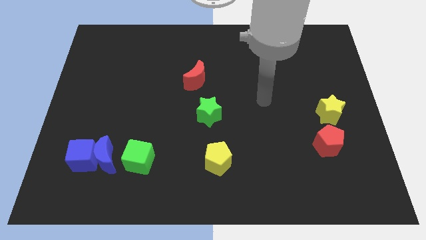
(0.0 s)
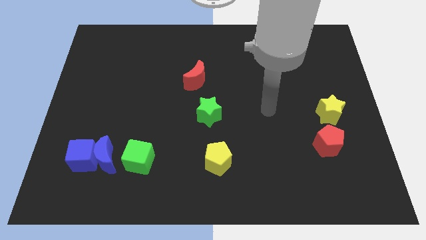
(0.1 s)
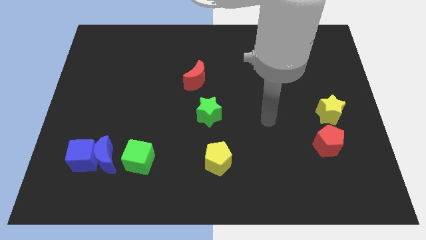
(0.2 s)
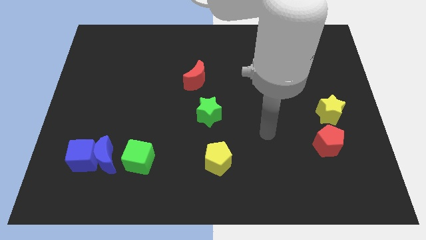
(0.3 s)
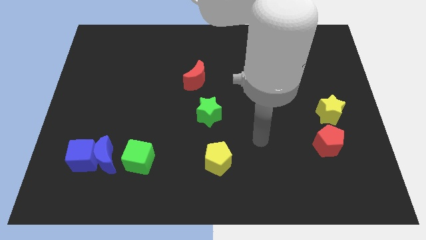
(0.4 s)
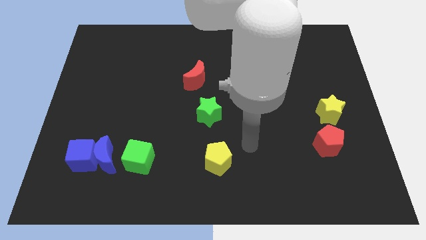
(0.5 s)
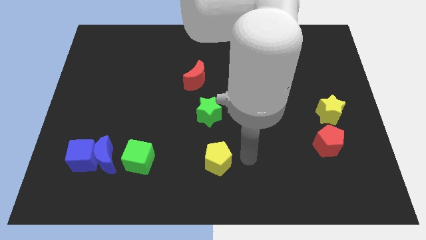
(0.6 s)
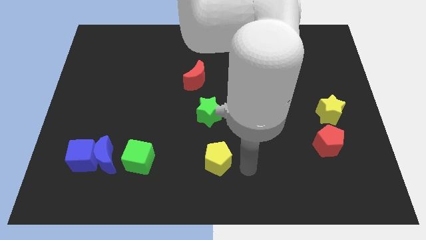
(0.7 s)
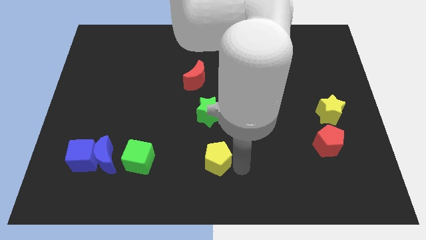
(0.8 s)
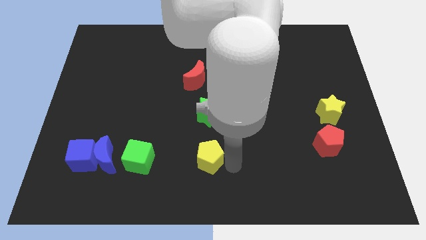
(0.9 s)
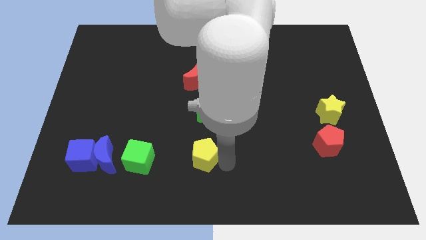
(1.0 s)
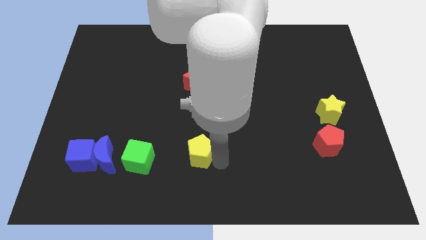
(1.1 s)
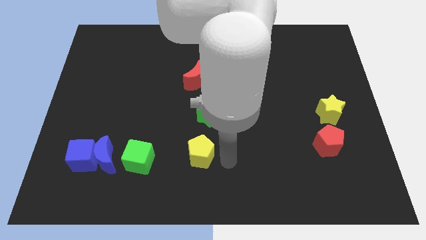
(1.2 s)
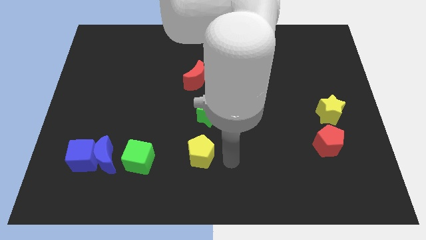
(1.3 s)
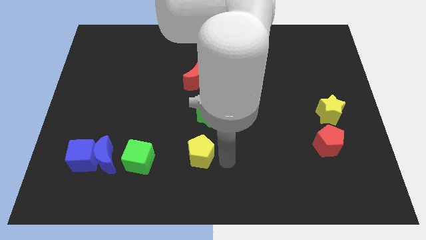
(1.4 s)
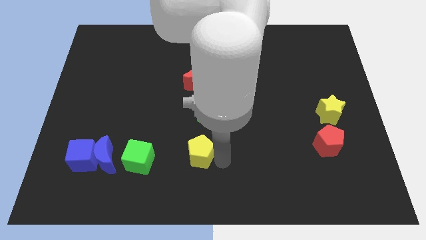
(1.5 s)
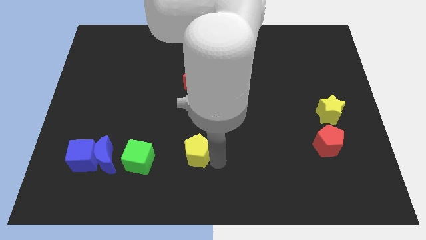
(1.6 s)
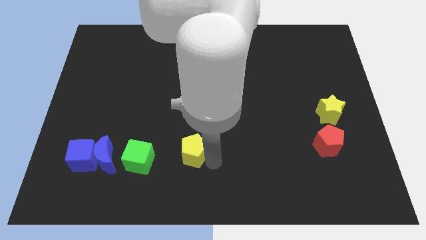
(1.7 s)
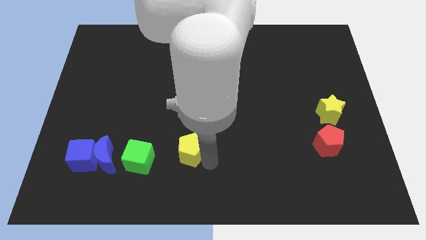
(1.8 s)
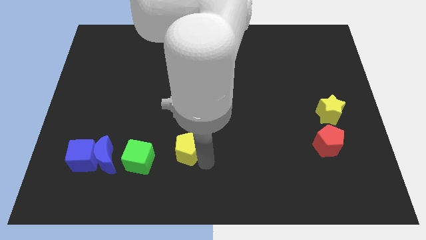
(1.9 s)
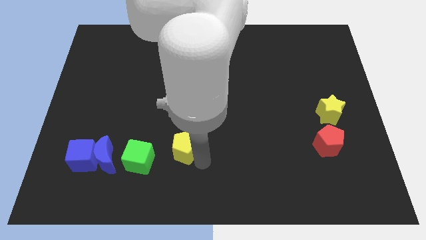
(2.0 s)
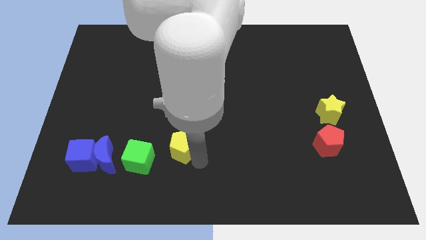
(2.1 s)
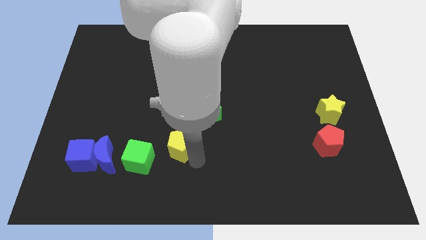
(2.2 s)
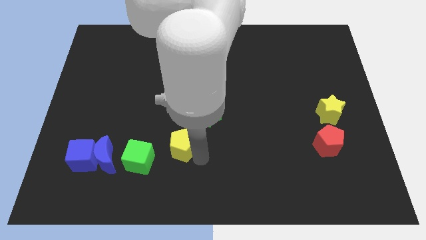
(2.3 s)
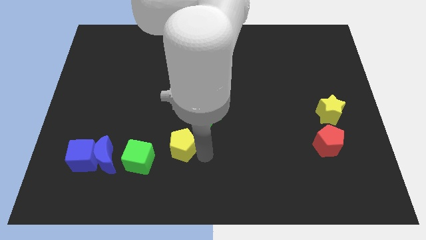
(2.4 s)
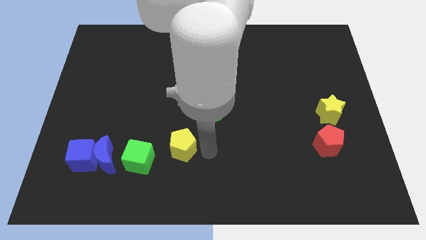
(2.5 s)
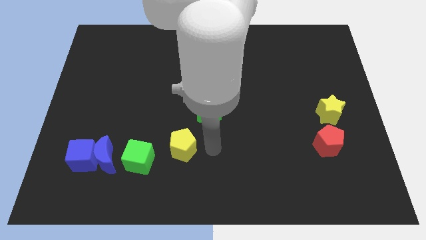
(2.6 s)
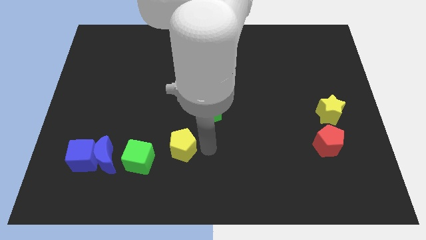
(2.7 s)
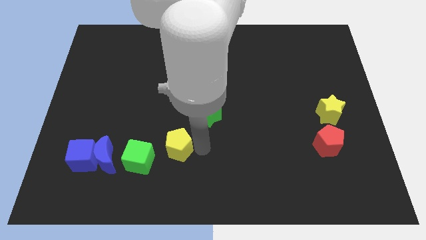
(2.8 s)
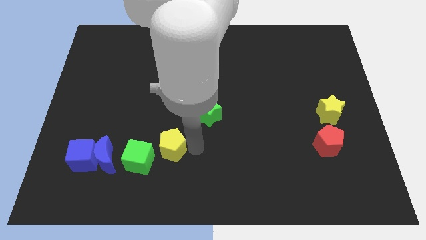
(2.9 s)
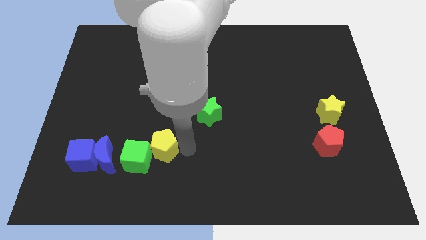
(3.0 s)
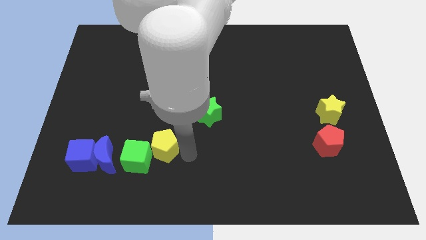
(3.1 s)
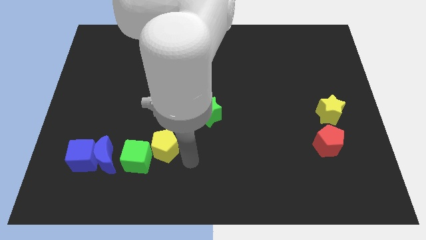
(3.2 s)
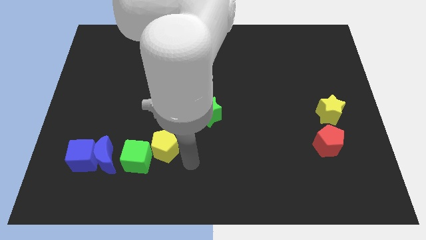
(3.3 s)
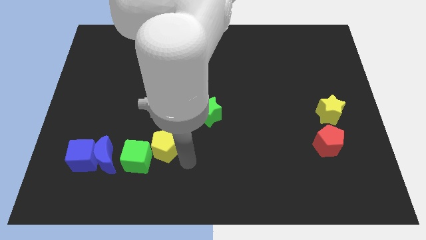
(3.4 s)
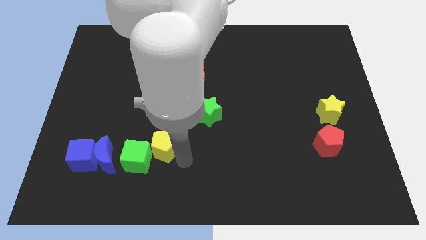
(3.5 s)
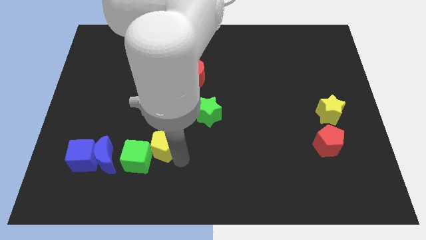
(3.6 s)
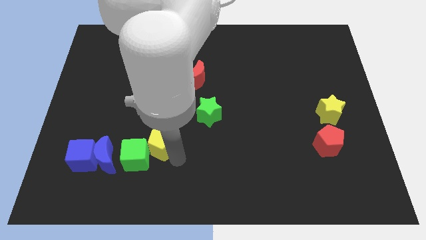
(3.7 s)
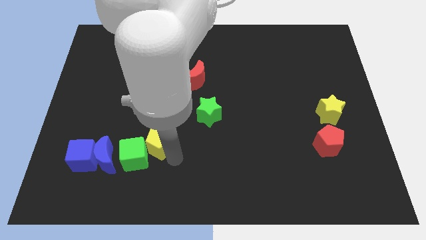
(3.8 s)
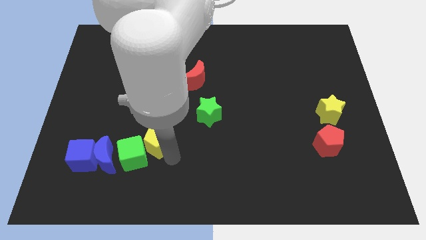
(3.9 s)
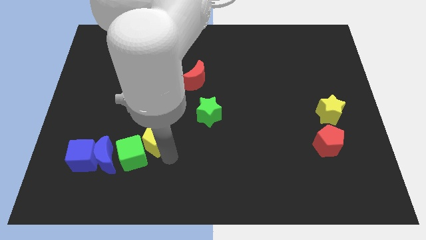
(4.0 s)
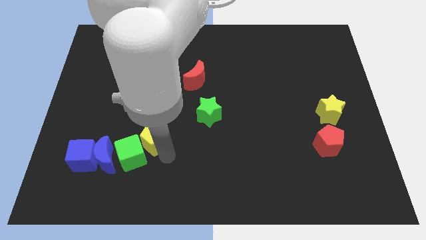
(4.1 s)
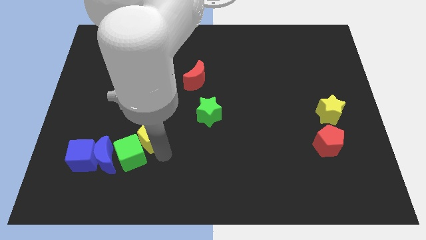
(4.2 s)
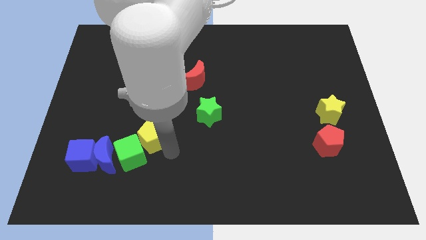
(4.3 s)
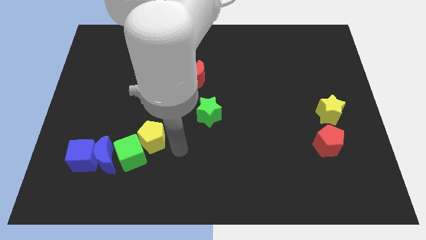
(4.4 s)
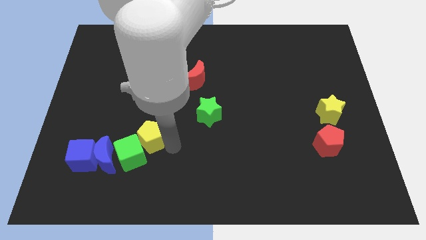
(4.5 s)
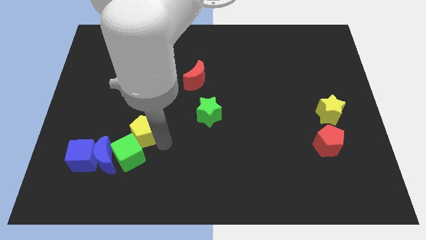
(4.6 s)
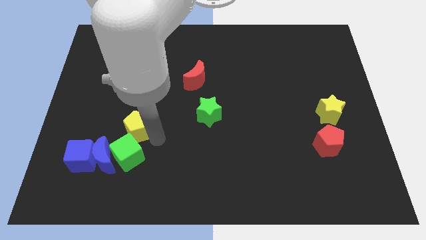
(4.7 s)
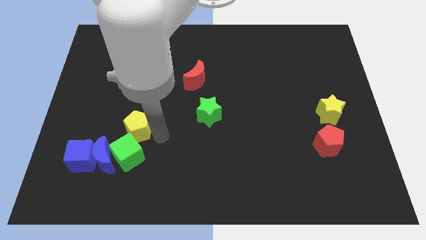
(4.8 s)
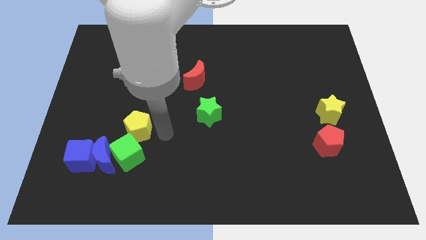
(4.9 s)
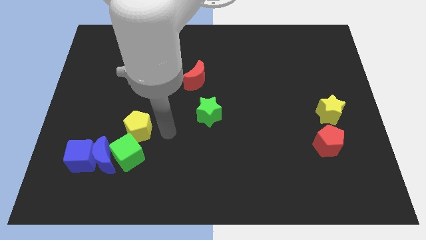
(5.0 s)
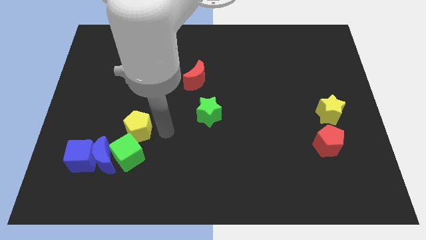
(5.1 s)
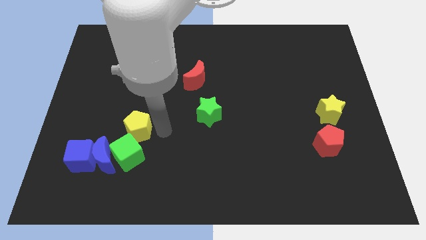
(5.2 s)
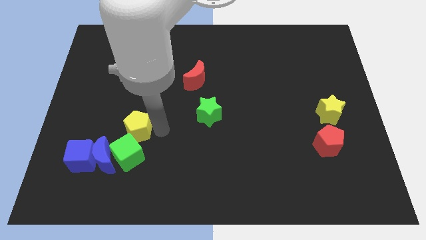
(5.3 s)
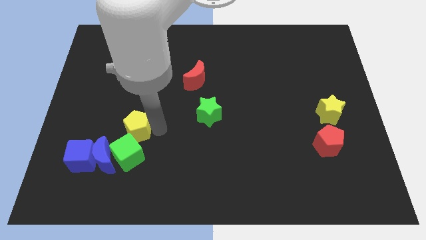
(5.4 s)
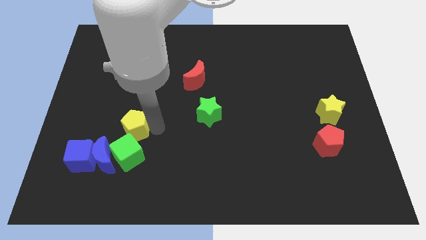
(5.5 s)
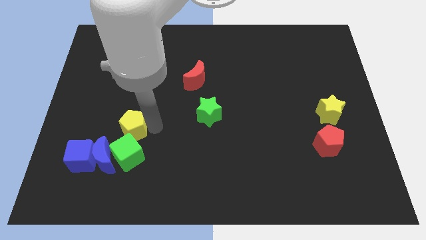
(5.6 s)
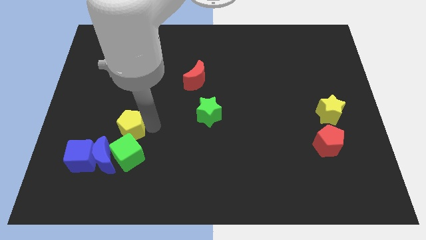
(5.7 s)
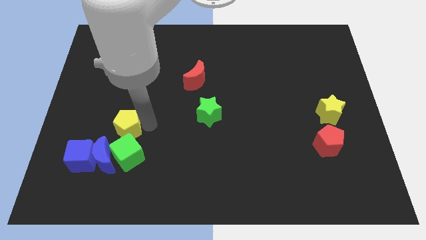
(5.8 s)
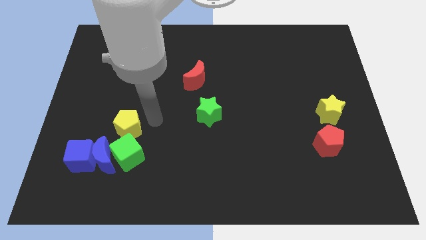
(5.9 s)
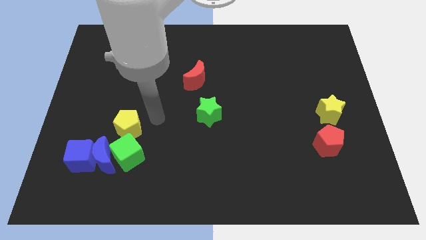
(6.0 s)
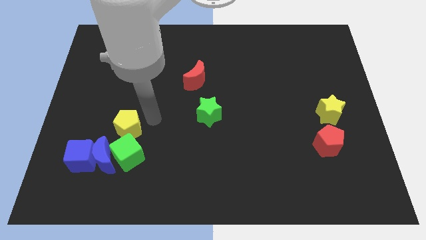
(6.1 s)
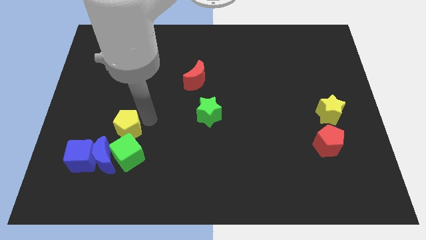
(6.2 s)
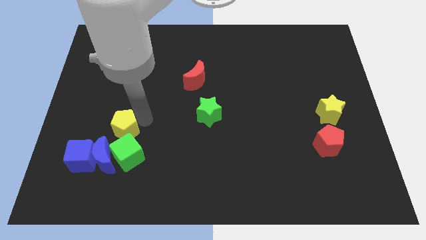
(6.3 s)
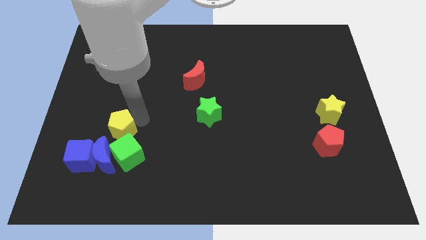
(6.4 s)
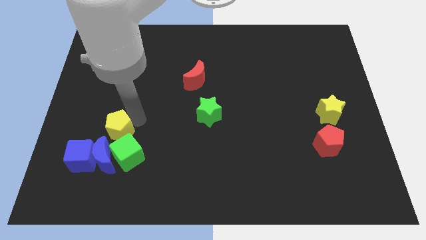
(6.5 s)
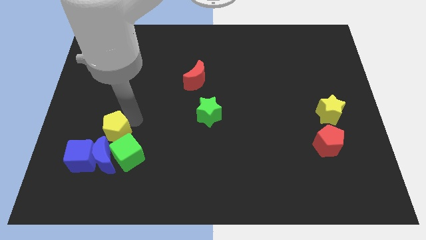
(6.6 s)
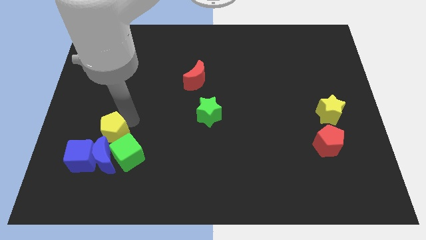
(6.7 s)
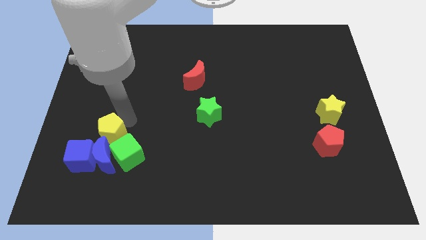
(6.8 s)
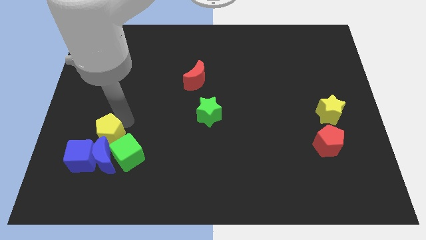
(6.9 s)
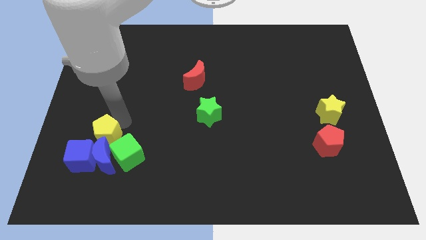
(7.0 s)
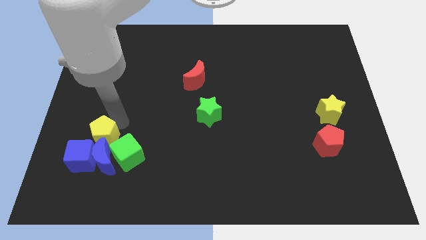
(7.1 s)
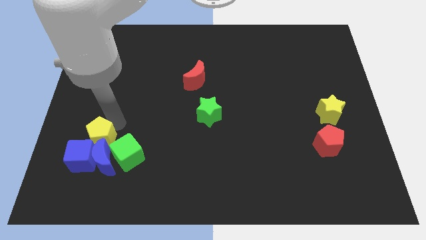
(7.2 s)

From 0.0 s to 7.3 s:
slide the yellow pentagon close to the blue cube

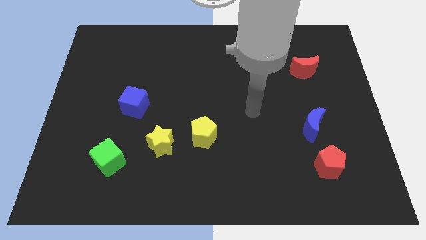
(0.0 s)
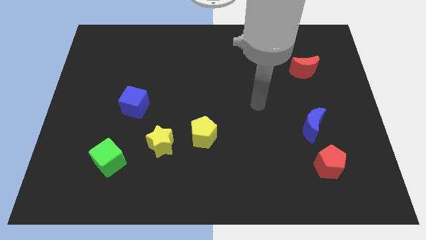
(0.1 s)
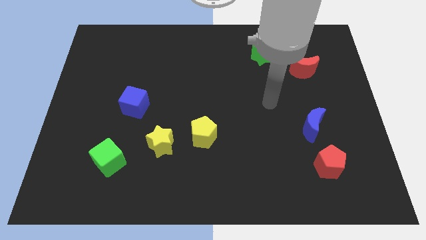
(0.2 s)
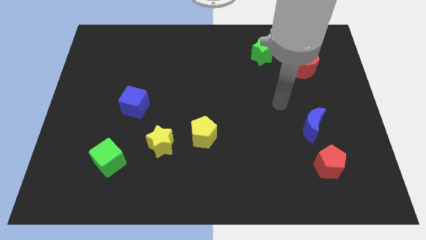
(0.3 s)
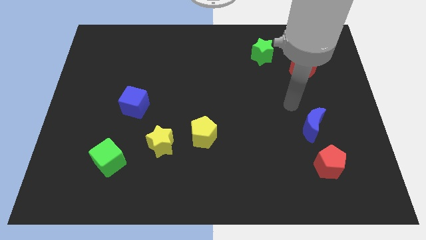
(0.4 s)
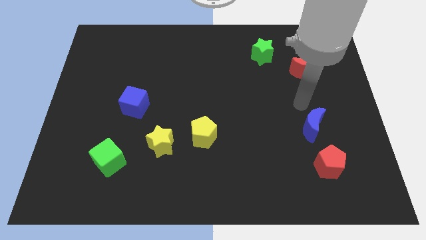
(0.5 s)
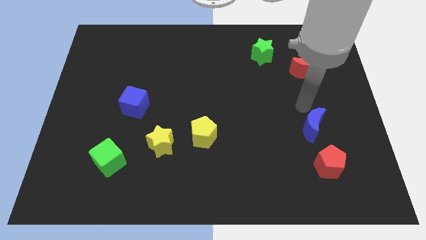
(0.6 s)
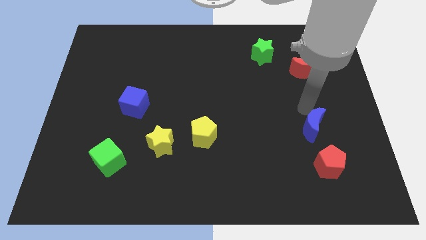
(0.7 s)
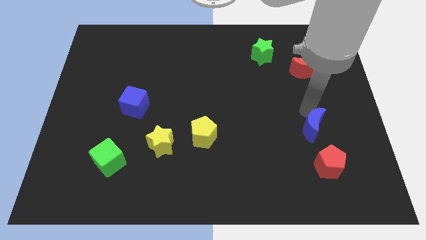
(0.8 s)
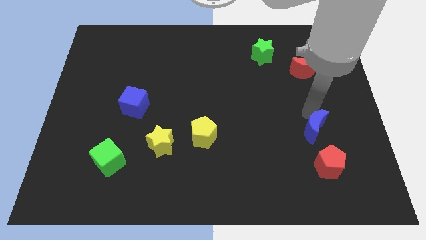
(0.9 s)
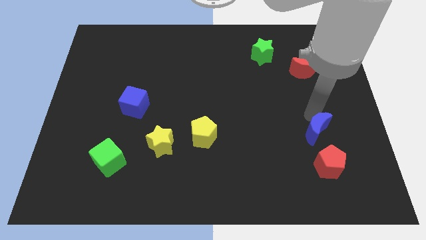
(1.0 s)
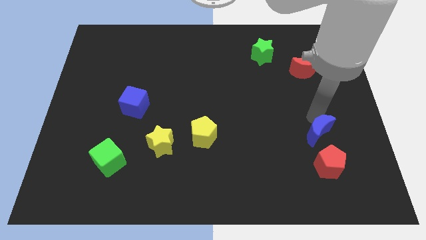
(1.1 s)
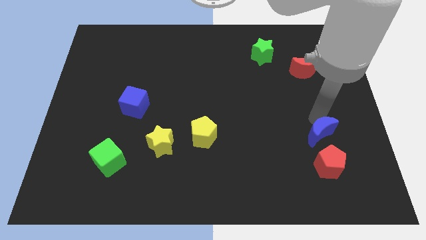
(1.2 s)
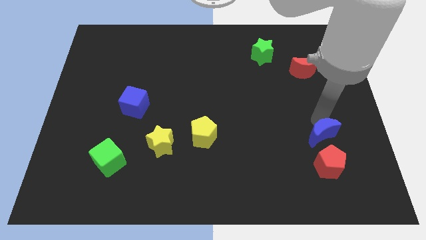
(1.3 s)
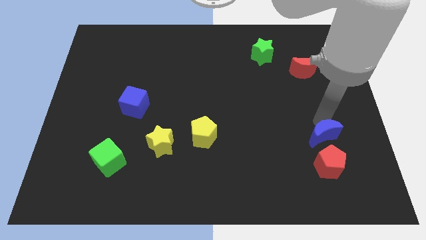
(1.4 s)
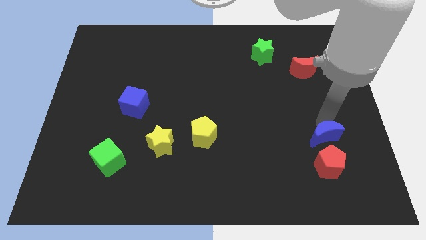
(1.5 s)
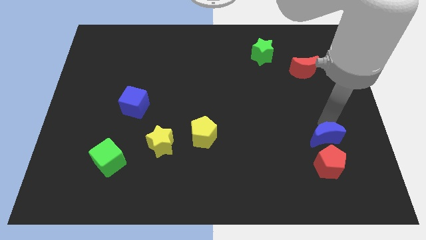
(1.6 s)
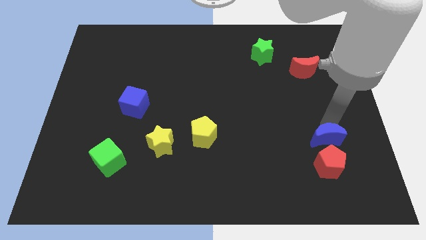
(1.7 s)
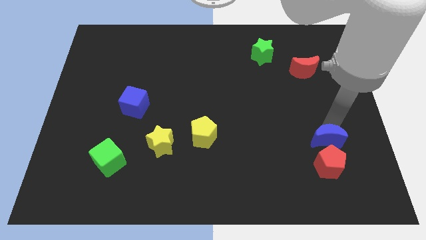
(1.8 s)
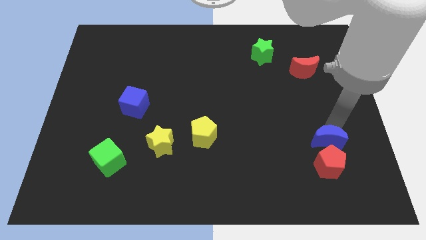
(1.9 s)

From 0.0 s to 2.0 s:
move the blue moon close to the red pentagon
